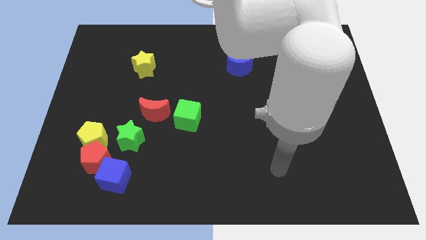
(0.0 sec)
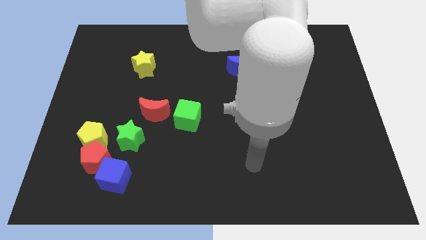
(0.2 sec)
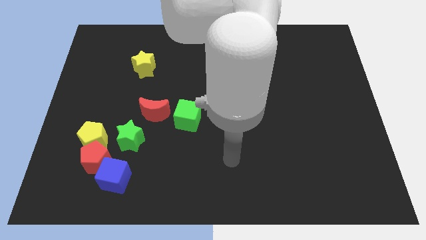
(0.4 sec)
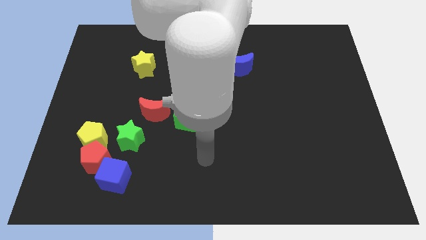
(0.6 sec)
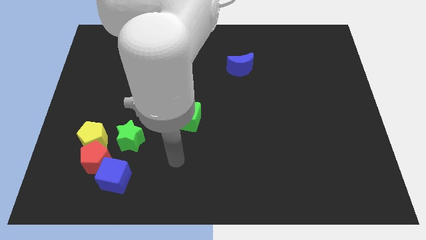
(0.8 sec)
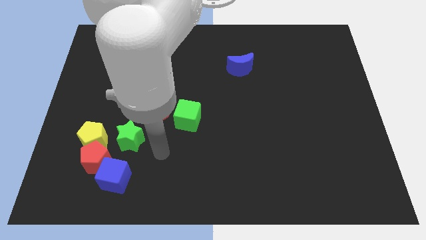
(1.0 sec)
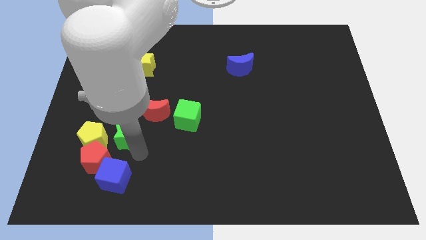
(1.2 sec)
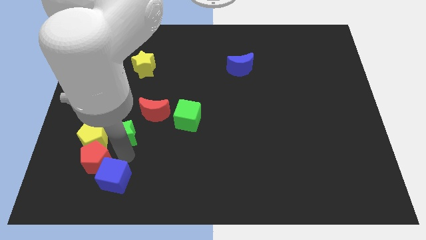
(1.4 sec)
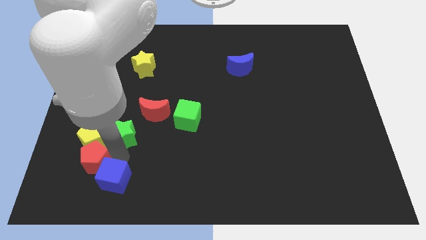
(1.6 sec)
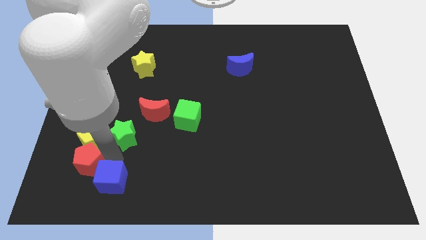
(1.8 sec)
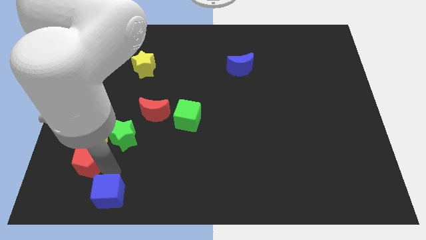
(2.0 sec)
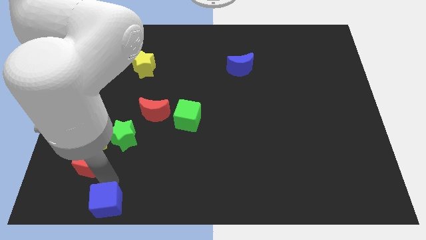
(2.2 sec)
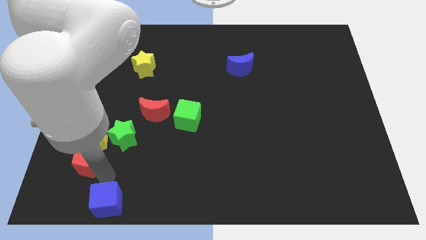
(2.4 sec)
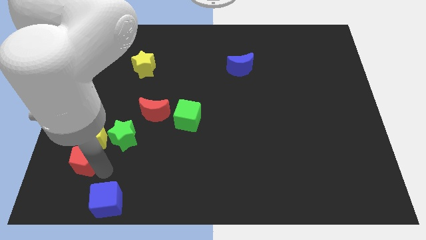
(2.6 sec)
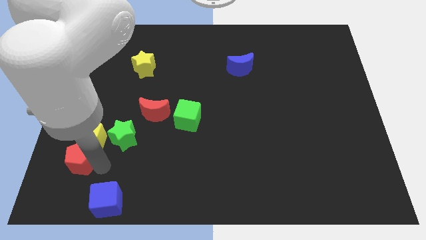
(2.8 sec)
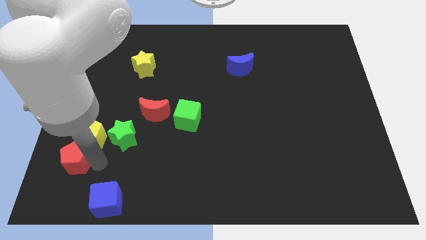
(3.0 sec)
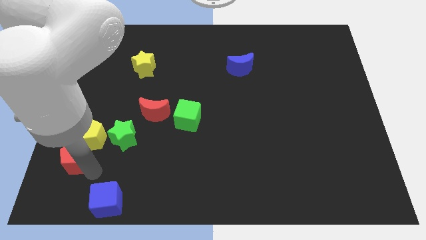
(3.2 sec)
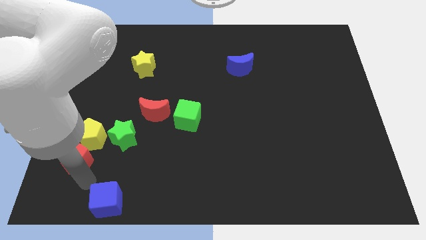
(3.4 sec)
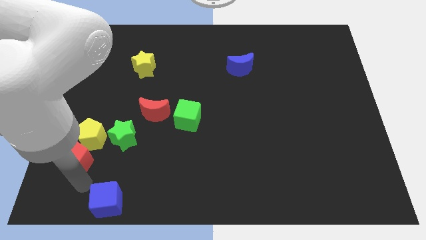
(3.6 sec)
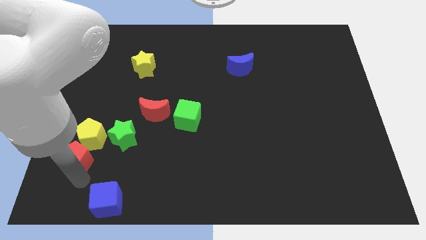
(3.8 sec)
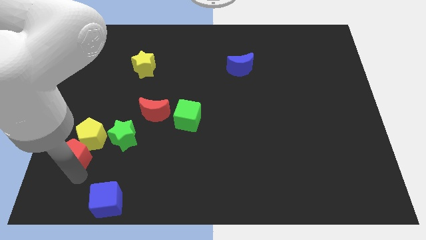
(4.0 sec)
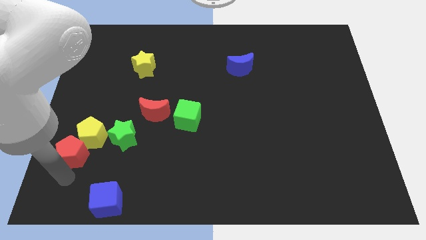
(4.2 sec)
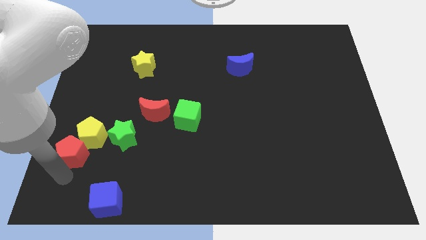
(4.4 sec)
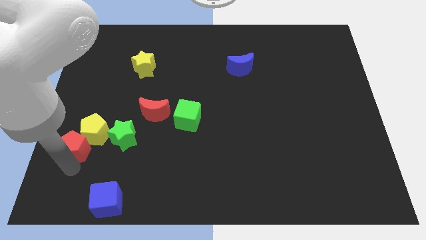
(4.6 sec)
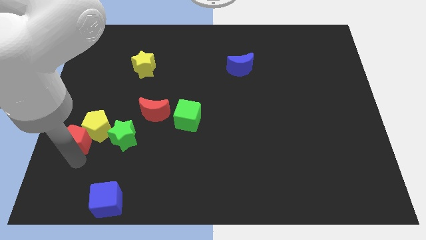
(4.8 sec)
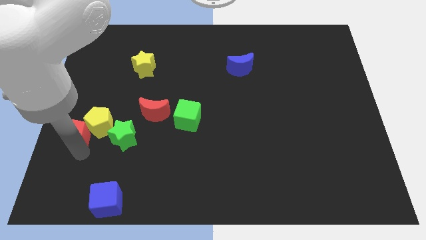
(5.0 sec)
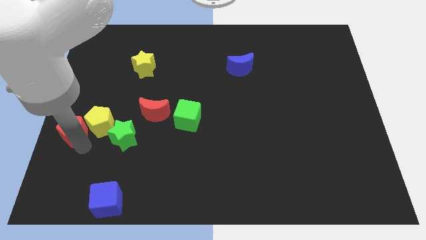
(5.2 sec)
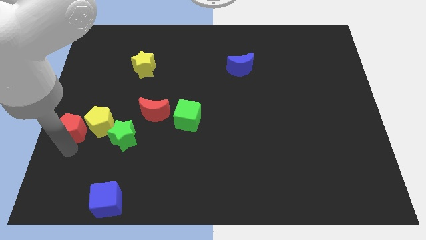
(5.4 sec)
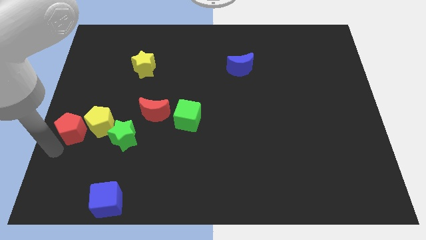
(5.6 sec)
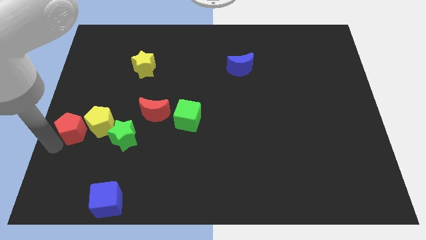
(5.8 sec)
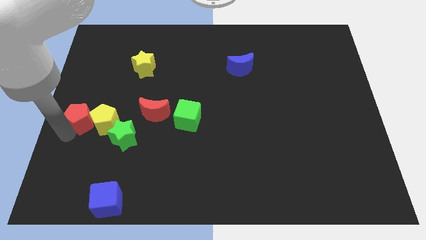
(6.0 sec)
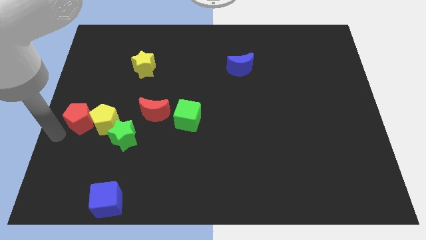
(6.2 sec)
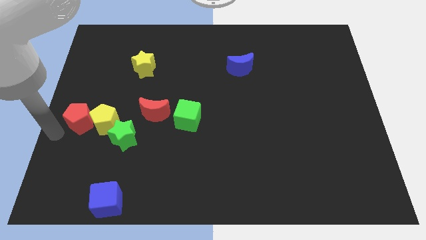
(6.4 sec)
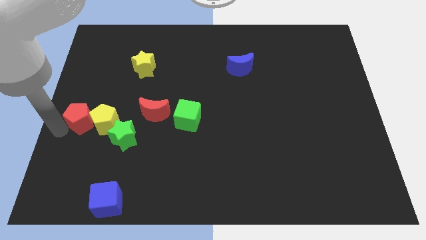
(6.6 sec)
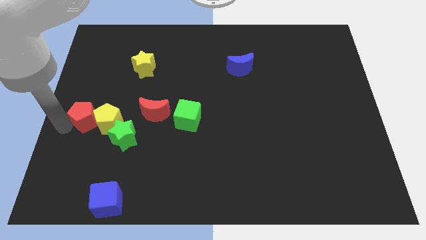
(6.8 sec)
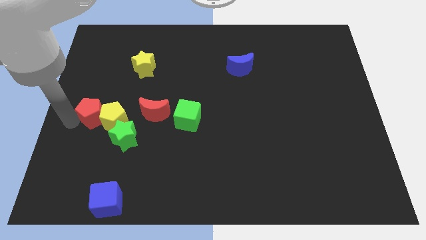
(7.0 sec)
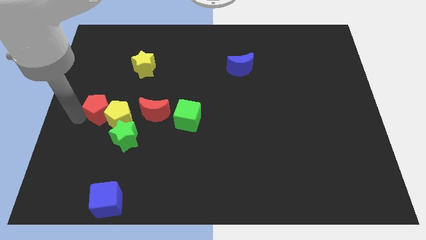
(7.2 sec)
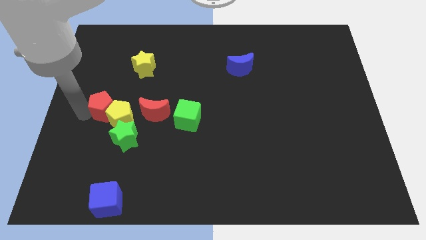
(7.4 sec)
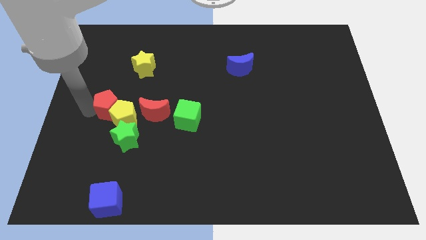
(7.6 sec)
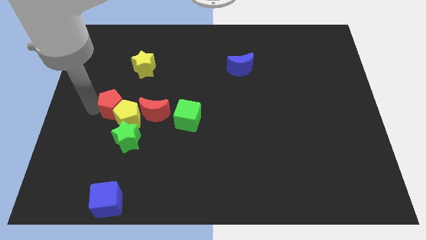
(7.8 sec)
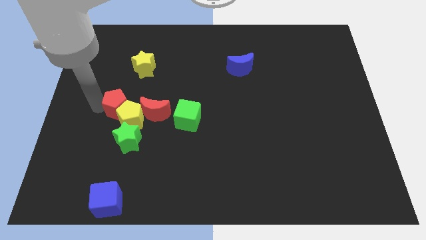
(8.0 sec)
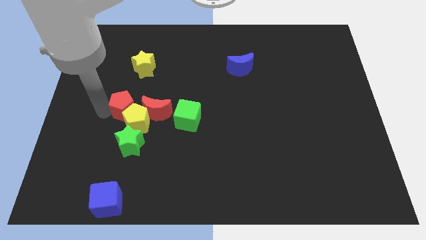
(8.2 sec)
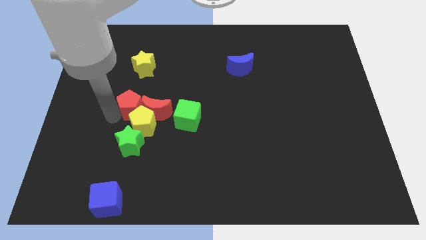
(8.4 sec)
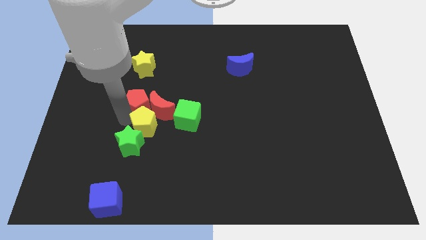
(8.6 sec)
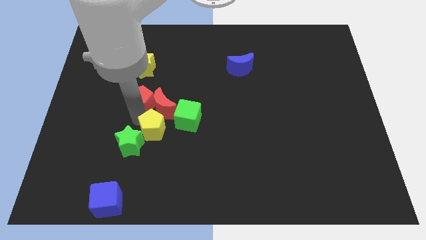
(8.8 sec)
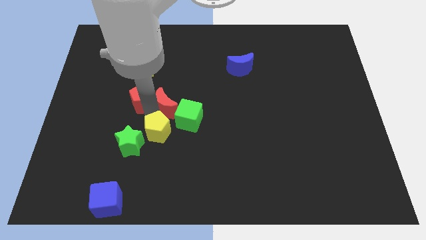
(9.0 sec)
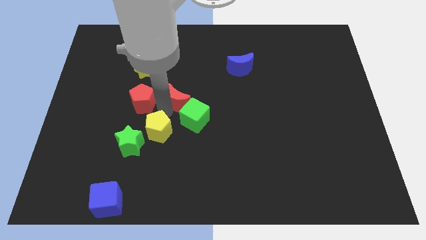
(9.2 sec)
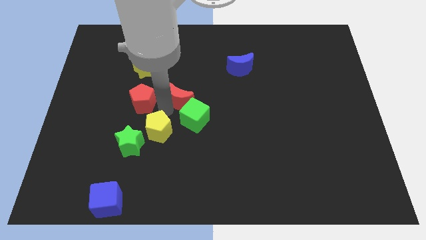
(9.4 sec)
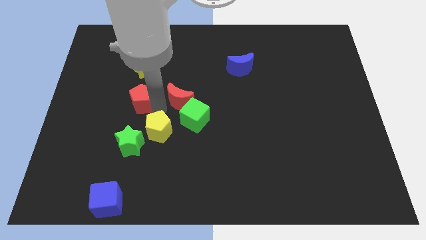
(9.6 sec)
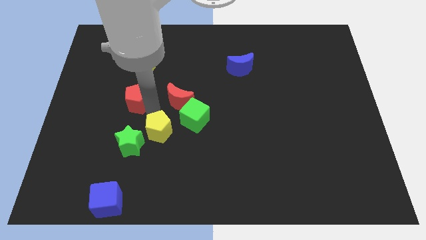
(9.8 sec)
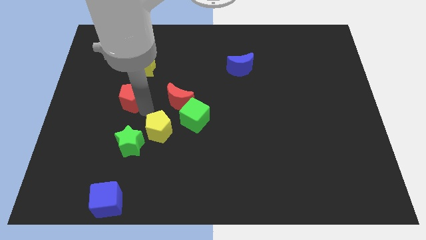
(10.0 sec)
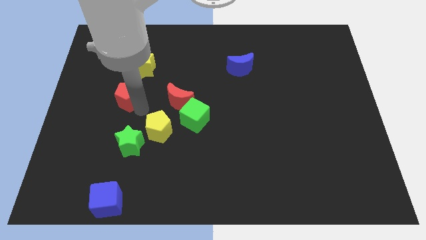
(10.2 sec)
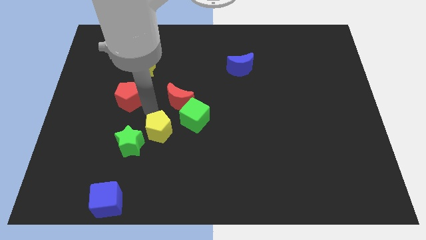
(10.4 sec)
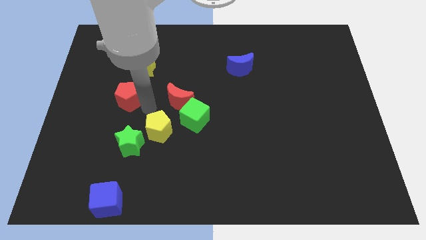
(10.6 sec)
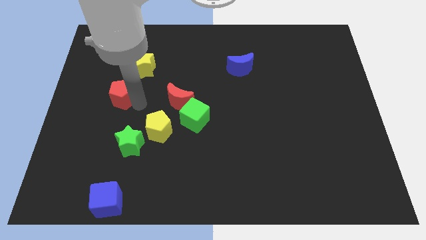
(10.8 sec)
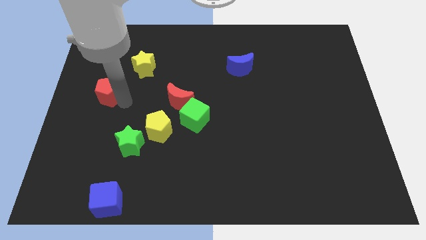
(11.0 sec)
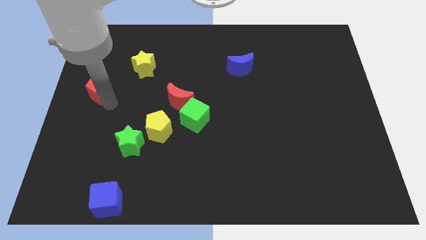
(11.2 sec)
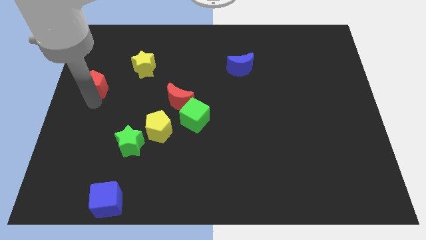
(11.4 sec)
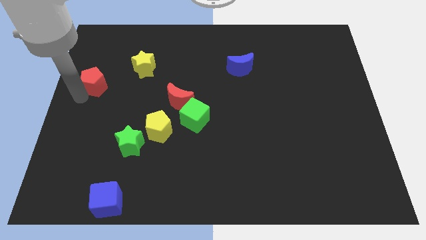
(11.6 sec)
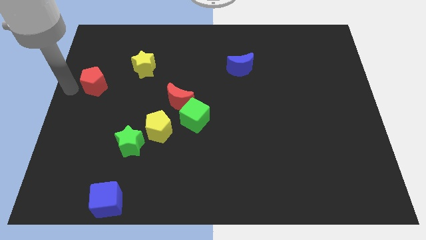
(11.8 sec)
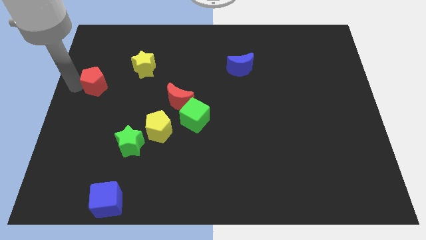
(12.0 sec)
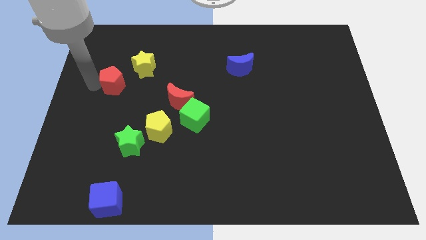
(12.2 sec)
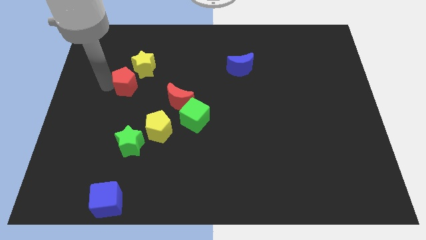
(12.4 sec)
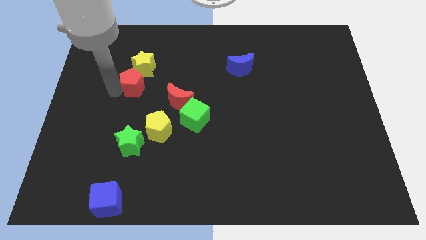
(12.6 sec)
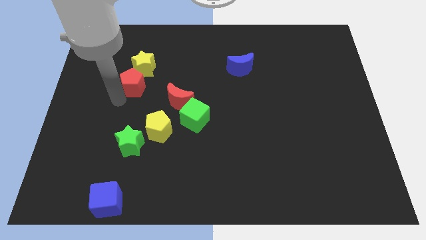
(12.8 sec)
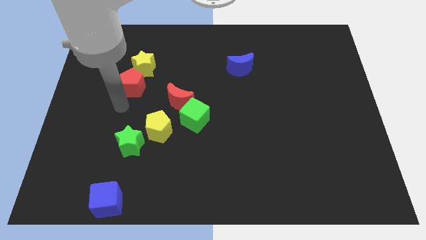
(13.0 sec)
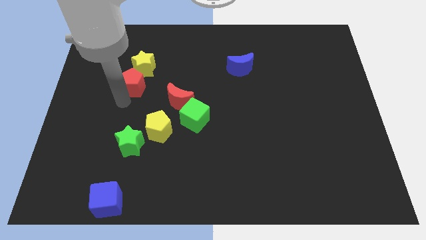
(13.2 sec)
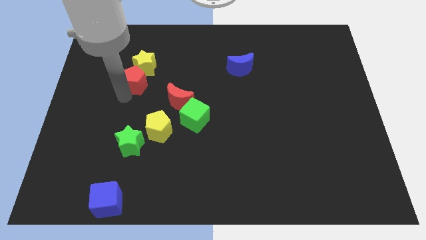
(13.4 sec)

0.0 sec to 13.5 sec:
slide the red pentagon towards the yellow star
